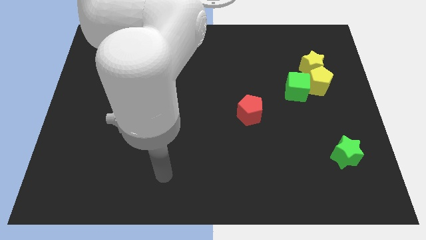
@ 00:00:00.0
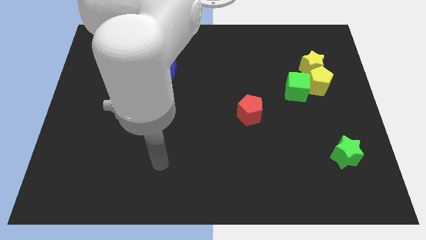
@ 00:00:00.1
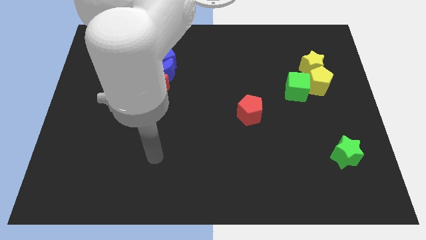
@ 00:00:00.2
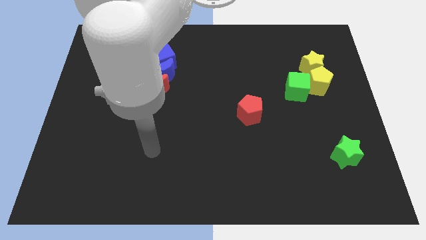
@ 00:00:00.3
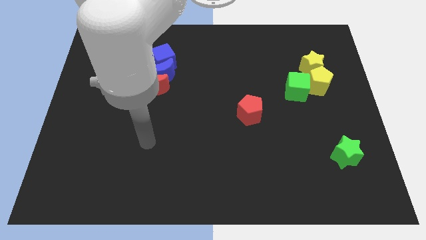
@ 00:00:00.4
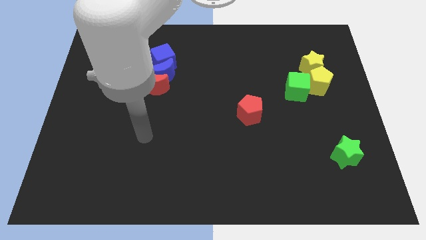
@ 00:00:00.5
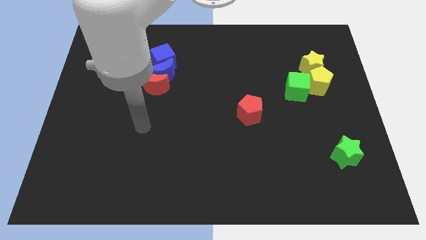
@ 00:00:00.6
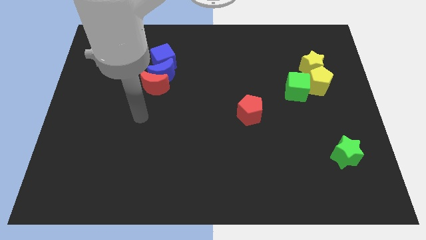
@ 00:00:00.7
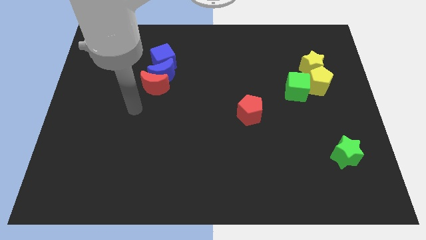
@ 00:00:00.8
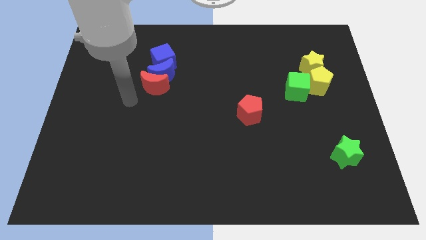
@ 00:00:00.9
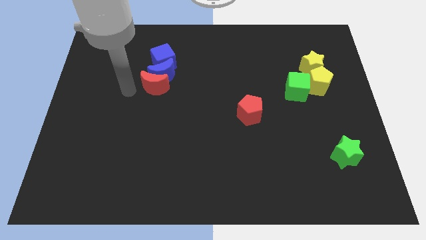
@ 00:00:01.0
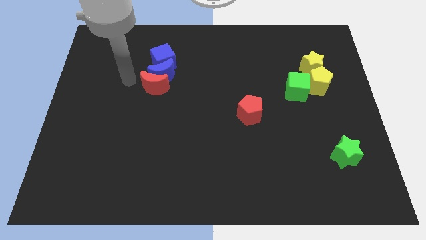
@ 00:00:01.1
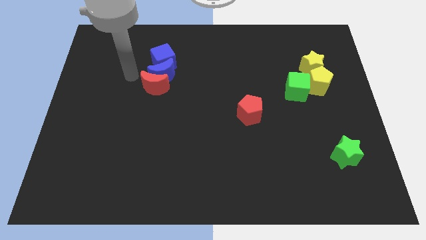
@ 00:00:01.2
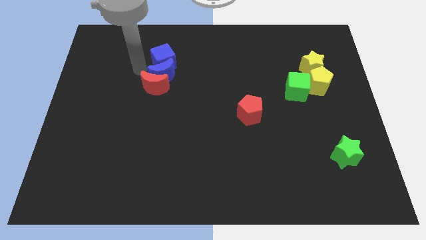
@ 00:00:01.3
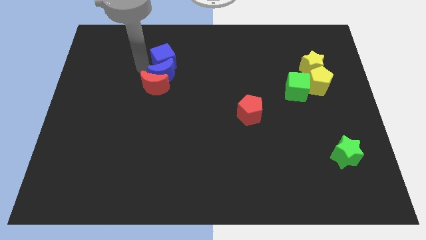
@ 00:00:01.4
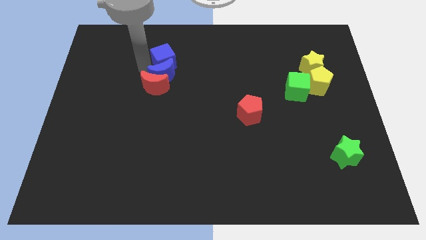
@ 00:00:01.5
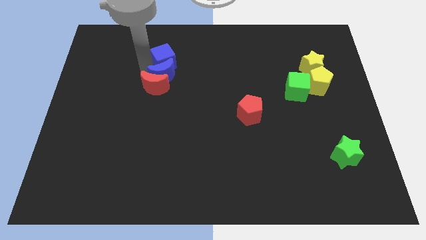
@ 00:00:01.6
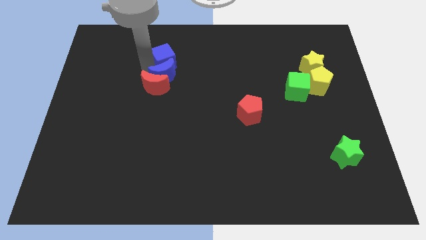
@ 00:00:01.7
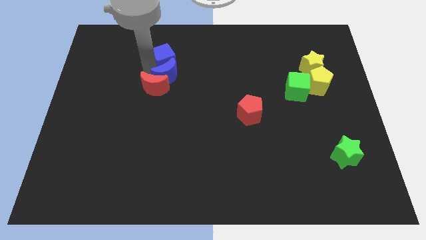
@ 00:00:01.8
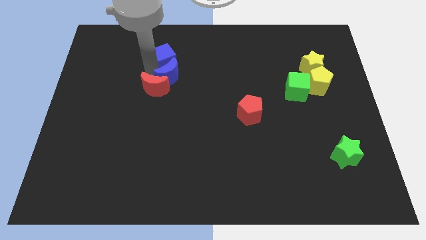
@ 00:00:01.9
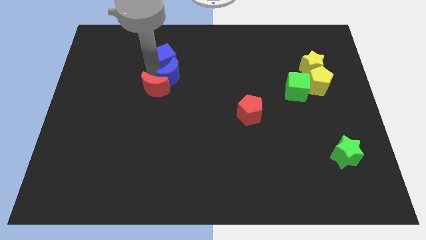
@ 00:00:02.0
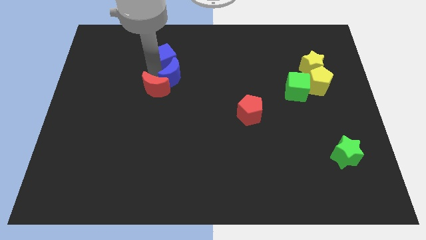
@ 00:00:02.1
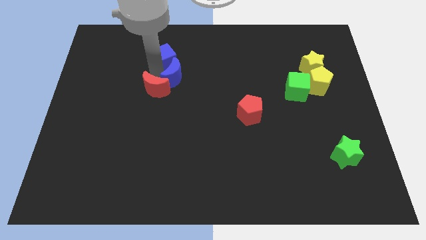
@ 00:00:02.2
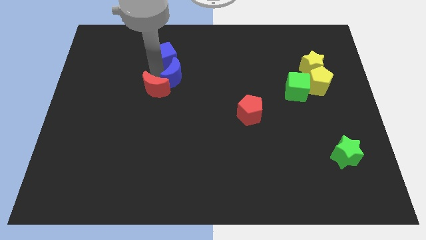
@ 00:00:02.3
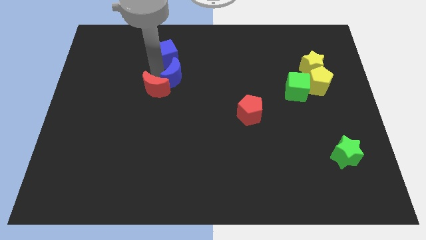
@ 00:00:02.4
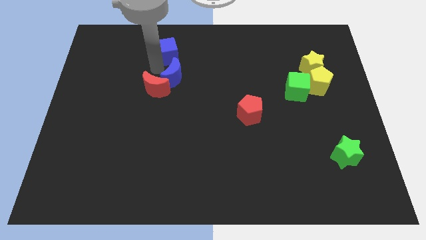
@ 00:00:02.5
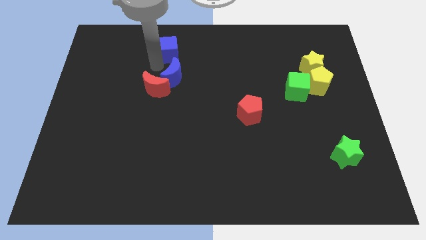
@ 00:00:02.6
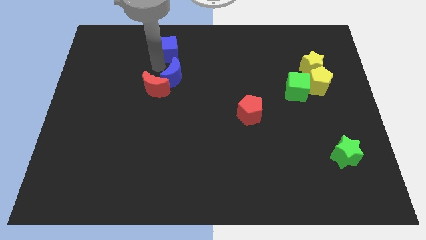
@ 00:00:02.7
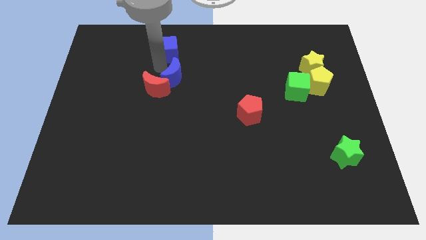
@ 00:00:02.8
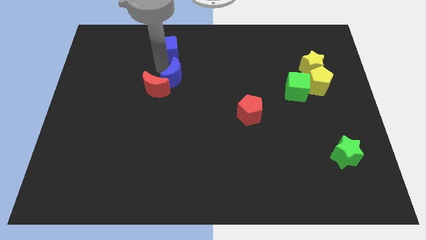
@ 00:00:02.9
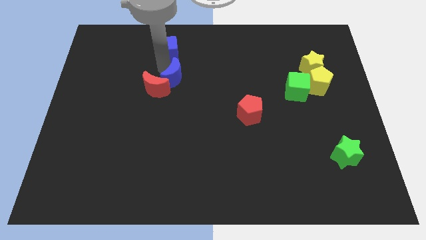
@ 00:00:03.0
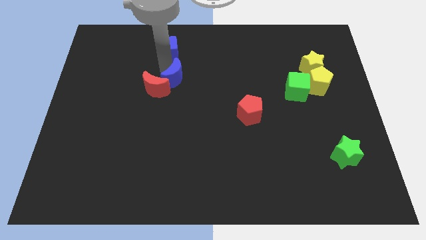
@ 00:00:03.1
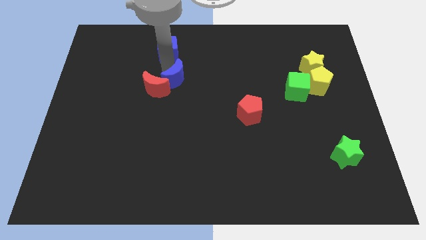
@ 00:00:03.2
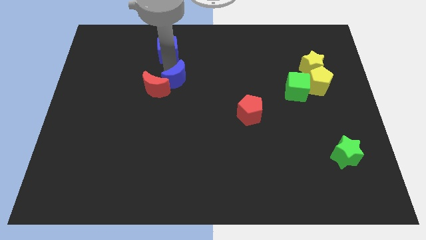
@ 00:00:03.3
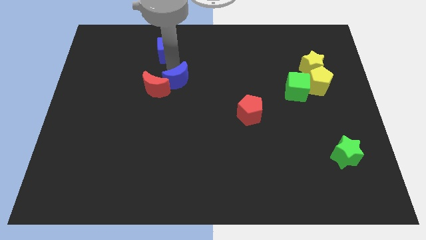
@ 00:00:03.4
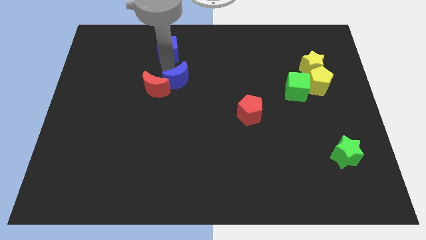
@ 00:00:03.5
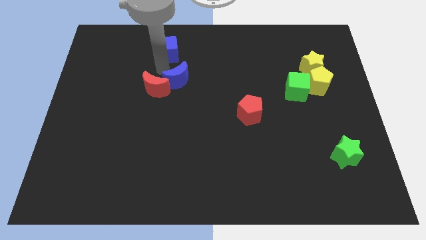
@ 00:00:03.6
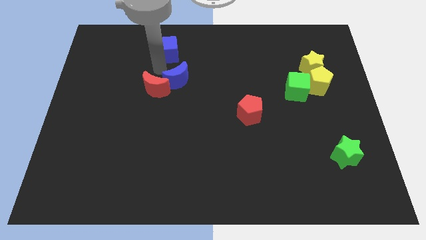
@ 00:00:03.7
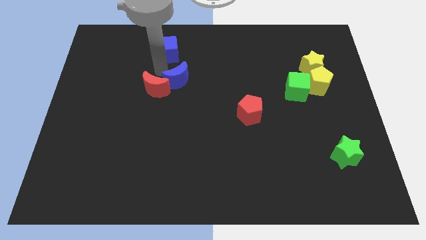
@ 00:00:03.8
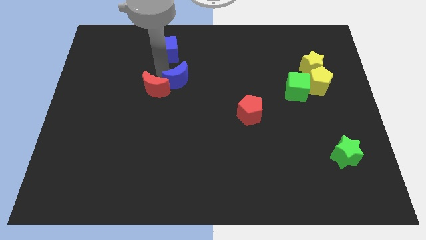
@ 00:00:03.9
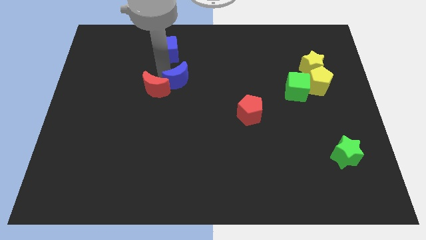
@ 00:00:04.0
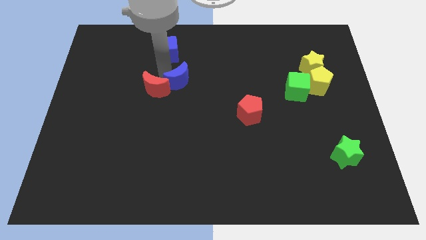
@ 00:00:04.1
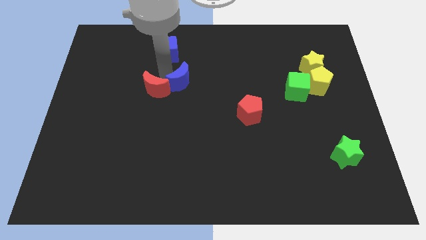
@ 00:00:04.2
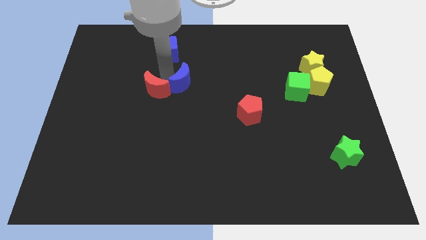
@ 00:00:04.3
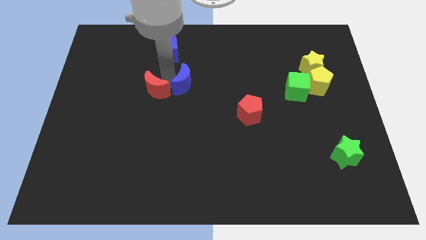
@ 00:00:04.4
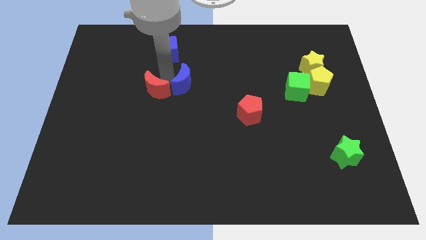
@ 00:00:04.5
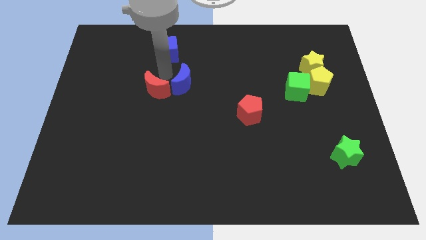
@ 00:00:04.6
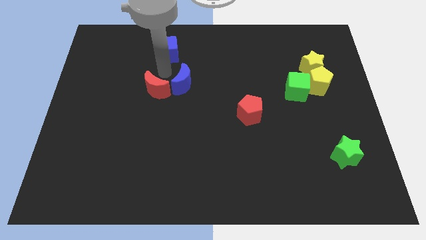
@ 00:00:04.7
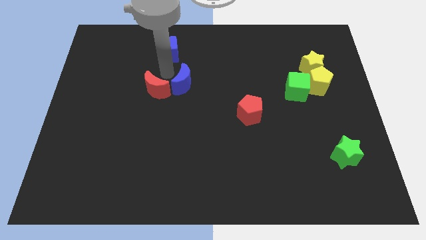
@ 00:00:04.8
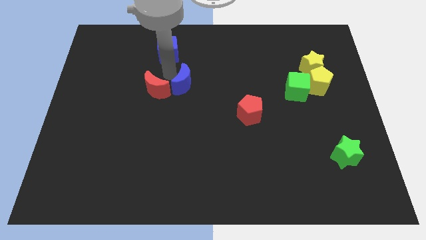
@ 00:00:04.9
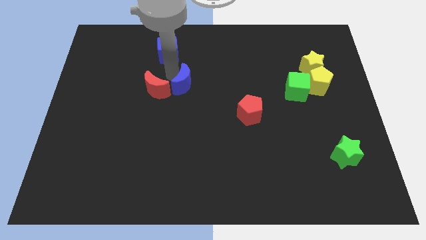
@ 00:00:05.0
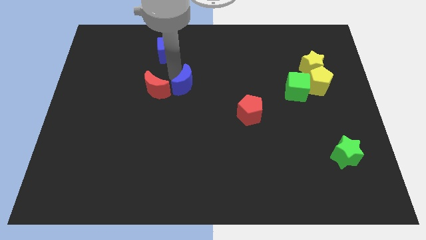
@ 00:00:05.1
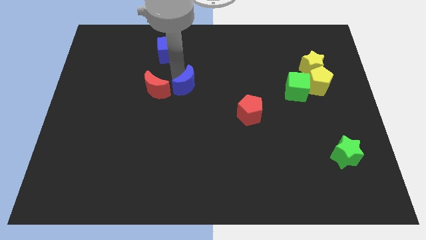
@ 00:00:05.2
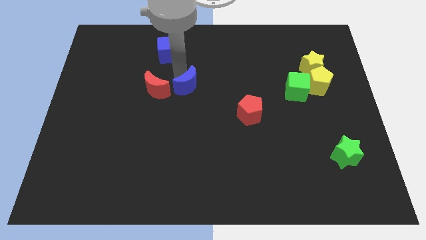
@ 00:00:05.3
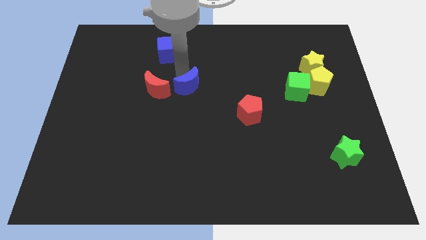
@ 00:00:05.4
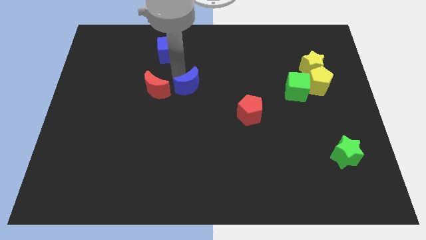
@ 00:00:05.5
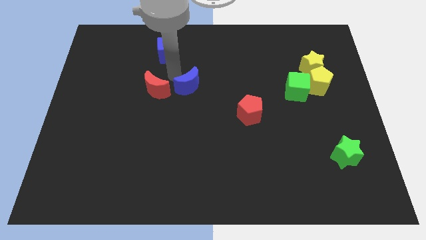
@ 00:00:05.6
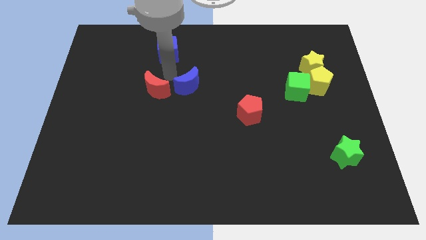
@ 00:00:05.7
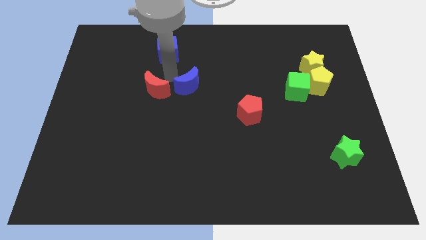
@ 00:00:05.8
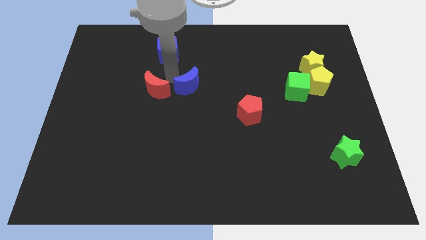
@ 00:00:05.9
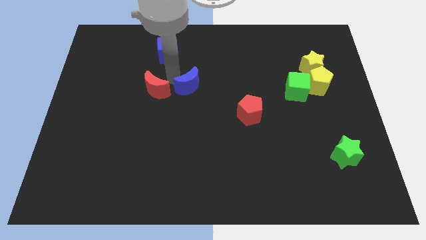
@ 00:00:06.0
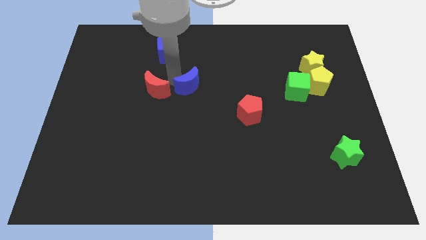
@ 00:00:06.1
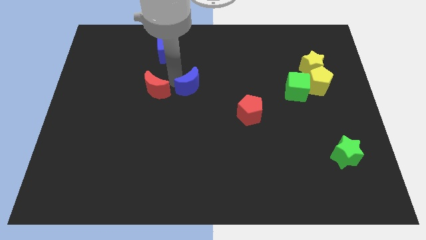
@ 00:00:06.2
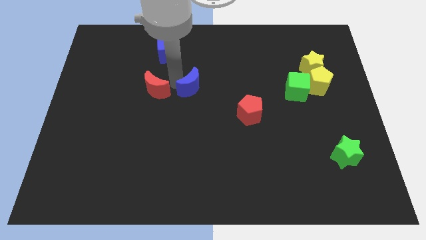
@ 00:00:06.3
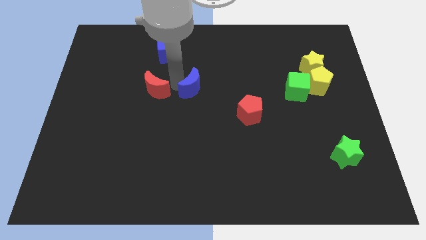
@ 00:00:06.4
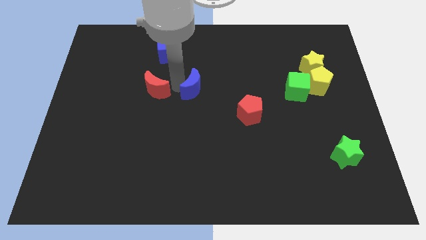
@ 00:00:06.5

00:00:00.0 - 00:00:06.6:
move the blue moon away from the red moon and blue cube

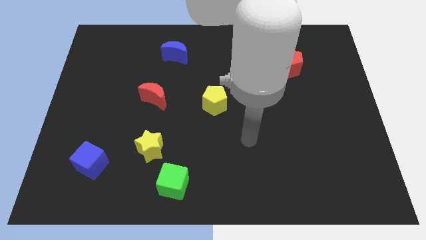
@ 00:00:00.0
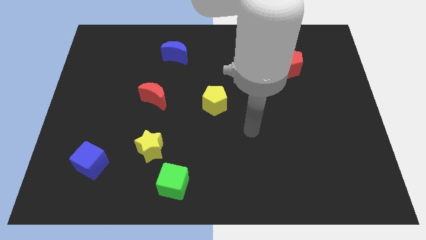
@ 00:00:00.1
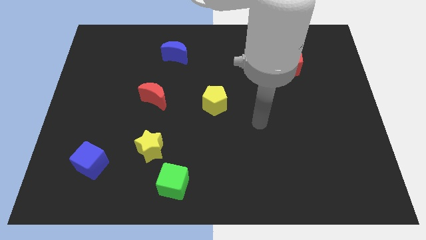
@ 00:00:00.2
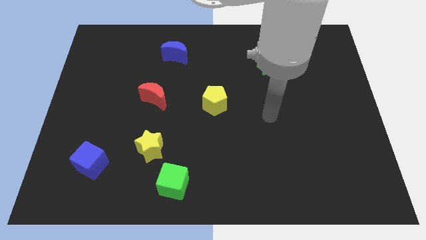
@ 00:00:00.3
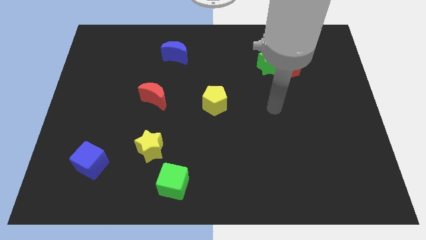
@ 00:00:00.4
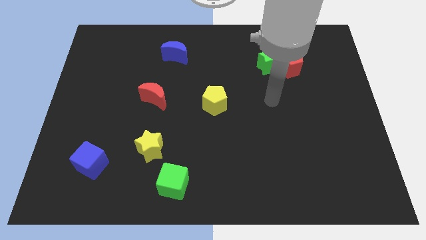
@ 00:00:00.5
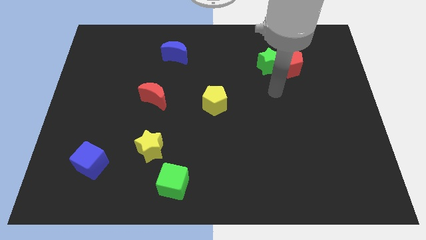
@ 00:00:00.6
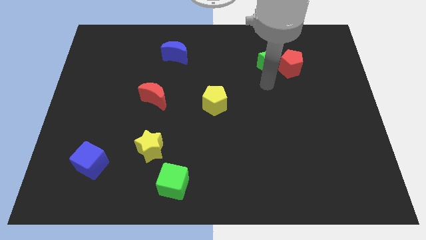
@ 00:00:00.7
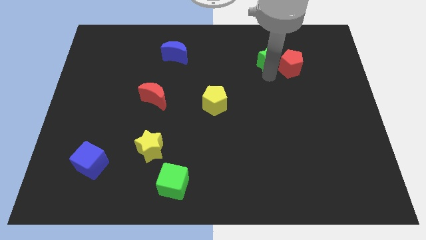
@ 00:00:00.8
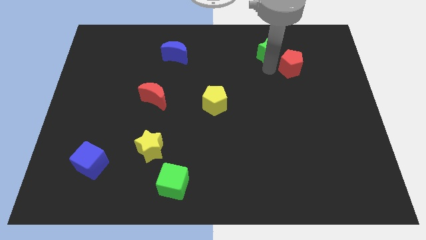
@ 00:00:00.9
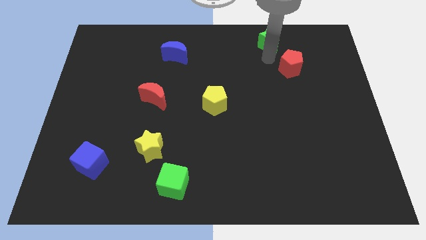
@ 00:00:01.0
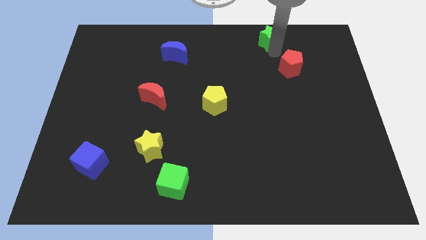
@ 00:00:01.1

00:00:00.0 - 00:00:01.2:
move the red pentagon away from the green star

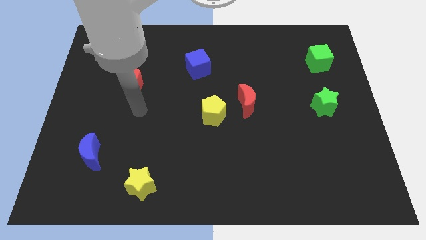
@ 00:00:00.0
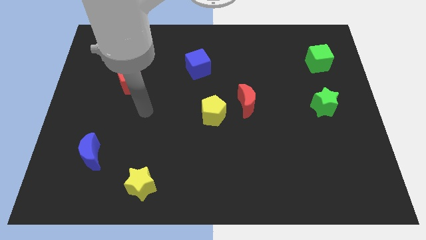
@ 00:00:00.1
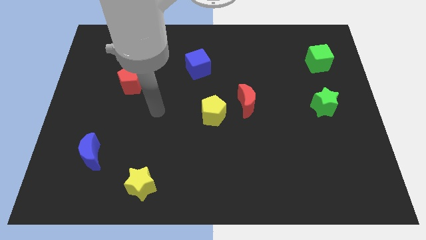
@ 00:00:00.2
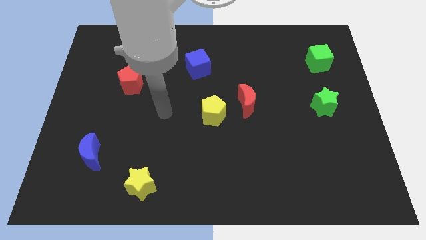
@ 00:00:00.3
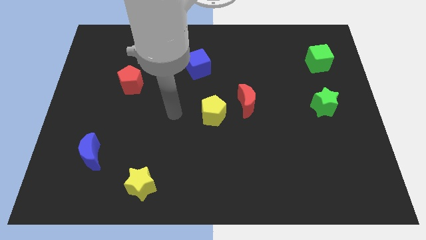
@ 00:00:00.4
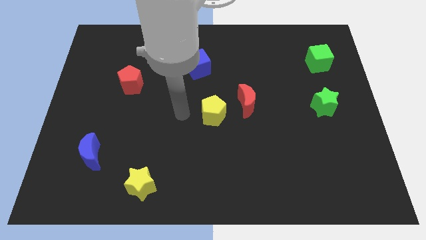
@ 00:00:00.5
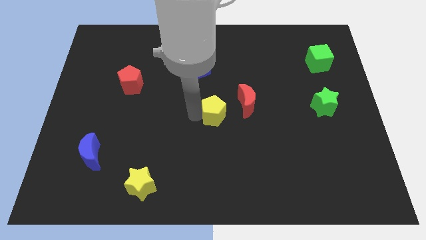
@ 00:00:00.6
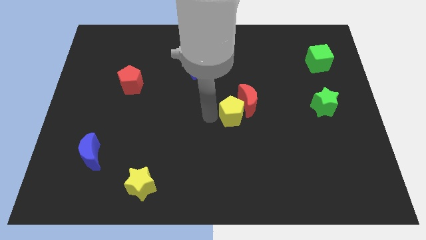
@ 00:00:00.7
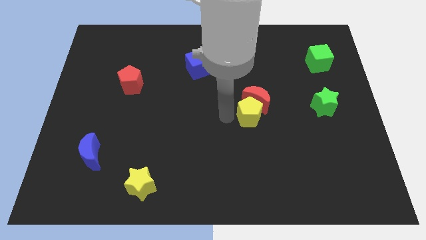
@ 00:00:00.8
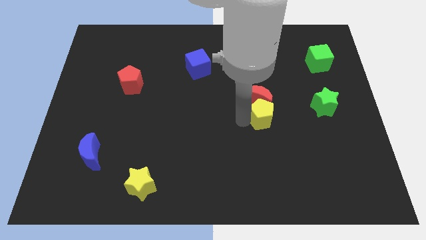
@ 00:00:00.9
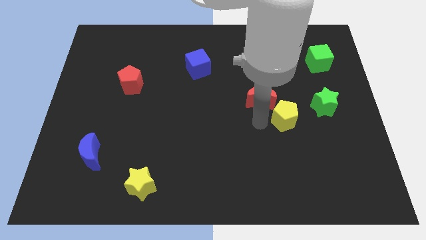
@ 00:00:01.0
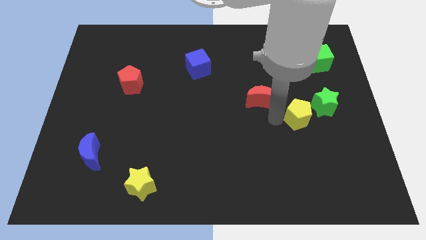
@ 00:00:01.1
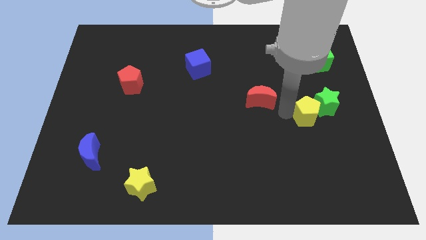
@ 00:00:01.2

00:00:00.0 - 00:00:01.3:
pull the red moon apart from the yellow pentagon

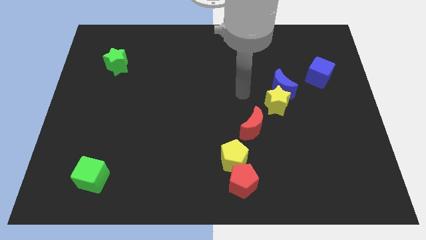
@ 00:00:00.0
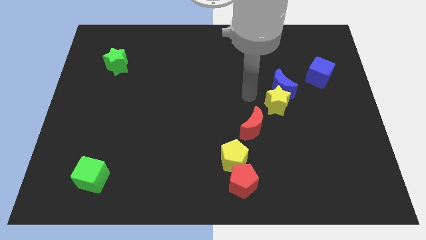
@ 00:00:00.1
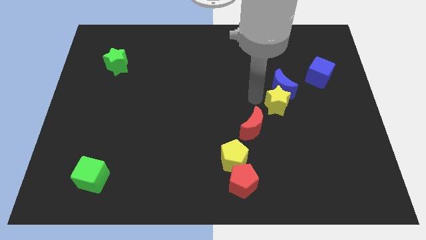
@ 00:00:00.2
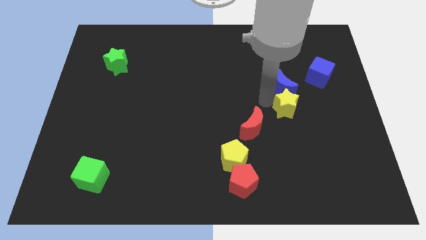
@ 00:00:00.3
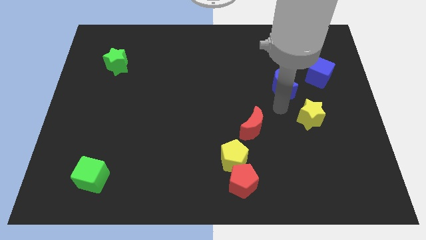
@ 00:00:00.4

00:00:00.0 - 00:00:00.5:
separate the blue moon from the yellow star
